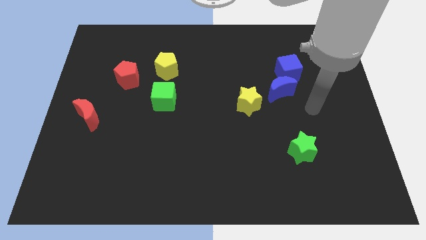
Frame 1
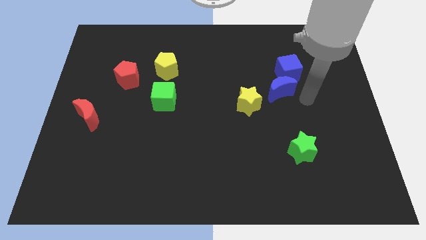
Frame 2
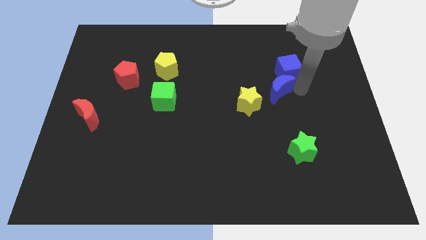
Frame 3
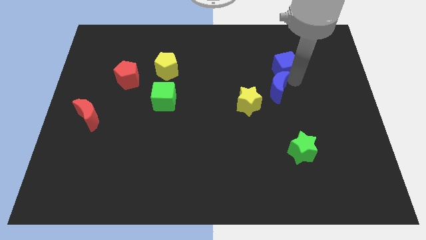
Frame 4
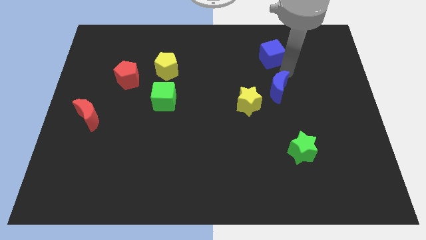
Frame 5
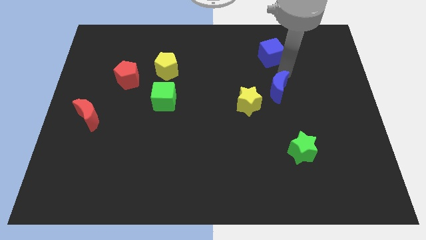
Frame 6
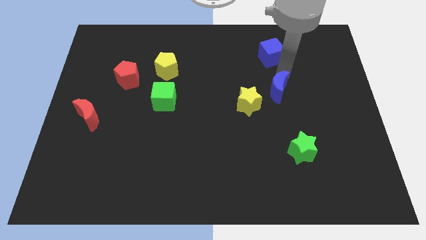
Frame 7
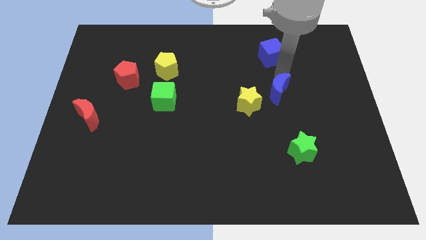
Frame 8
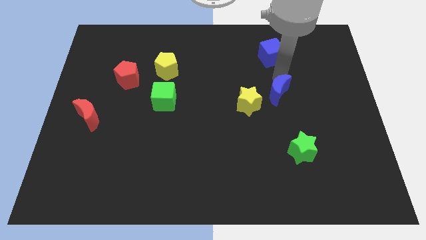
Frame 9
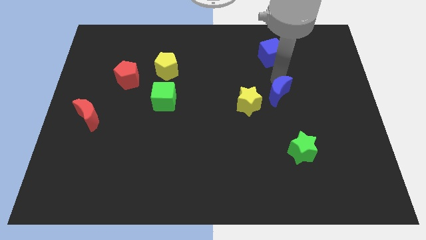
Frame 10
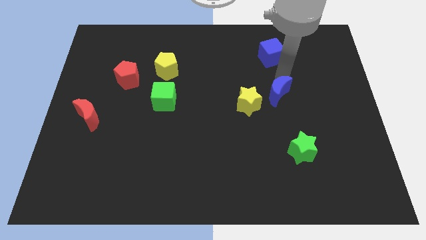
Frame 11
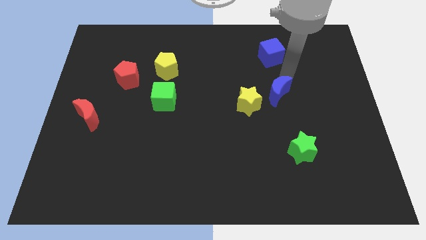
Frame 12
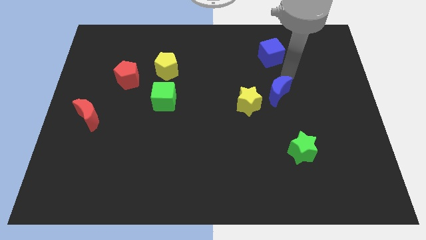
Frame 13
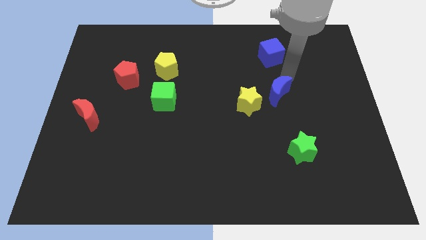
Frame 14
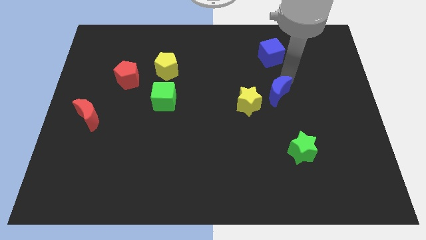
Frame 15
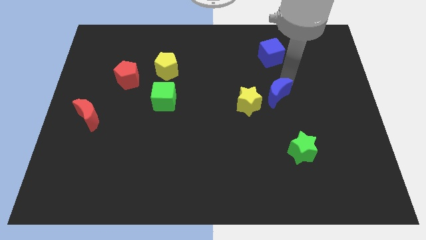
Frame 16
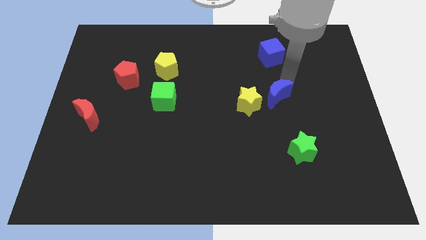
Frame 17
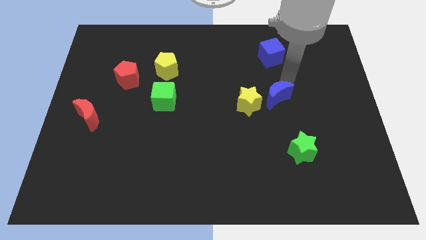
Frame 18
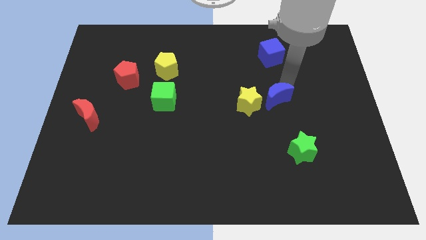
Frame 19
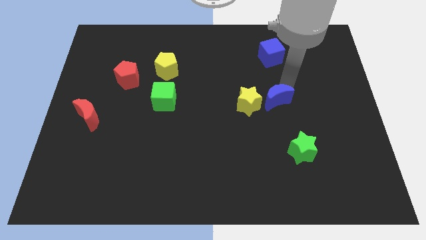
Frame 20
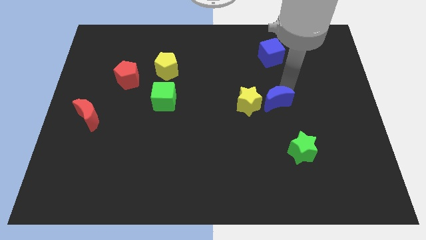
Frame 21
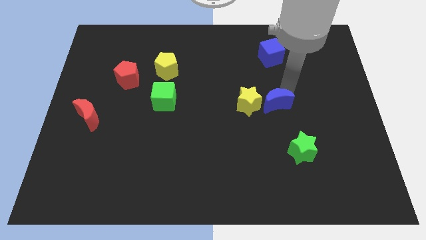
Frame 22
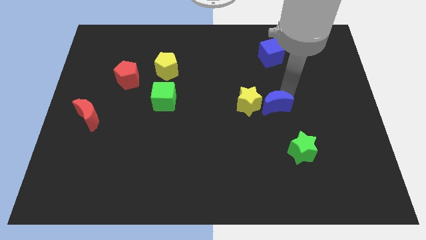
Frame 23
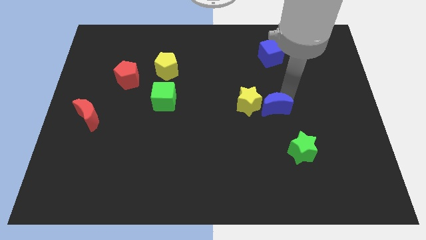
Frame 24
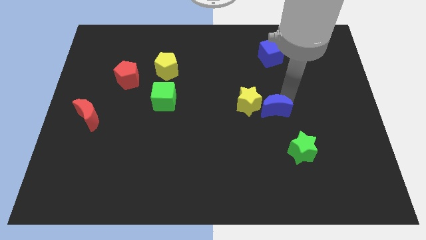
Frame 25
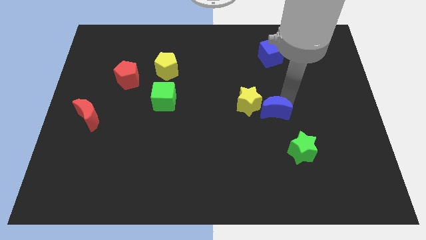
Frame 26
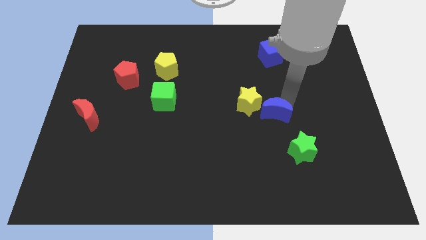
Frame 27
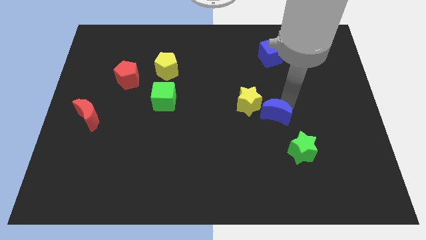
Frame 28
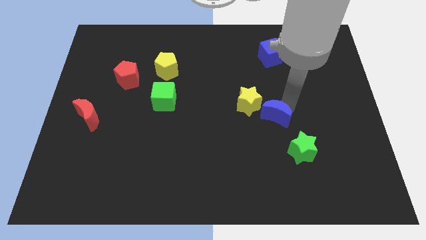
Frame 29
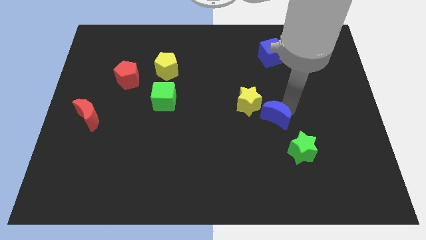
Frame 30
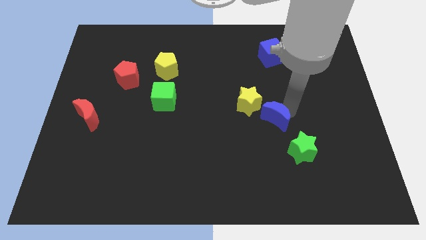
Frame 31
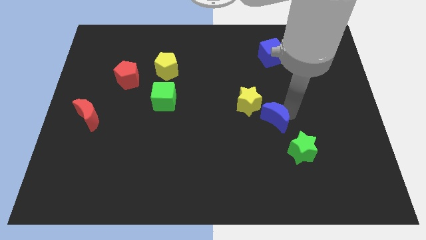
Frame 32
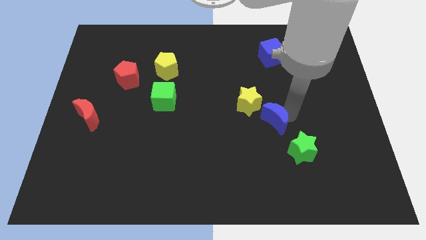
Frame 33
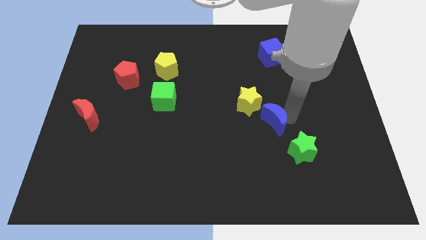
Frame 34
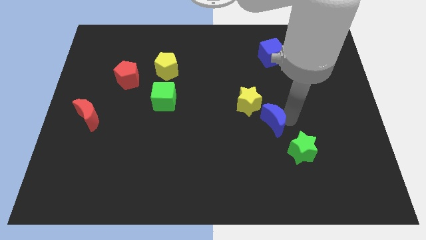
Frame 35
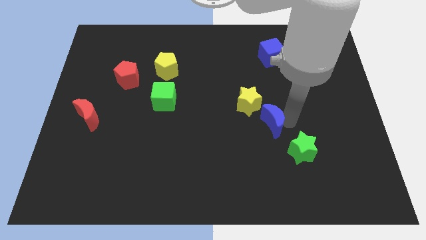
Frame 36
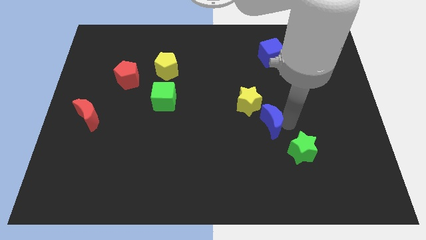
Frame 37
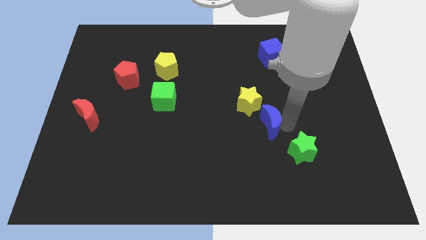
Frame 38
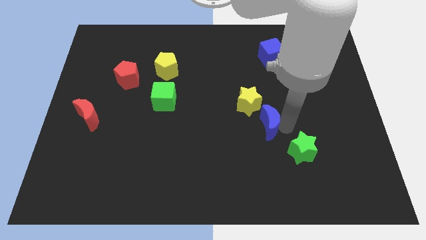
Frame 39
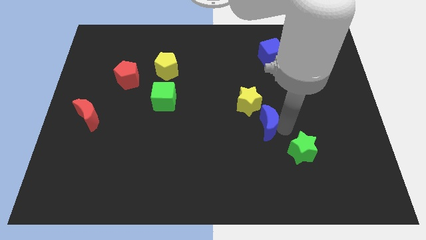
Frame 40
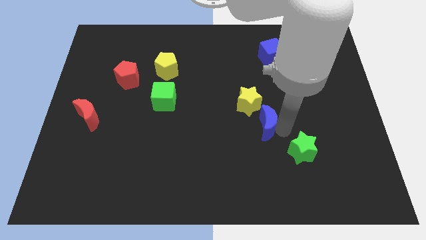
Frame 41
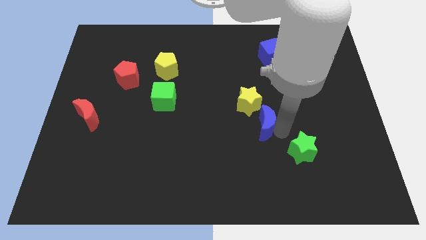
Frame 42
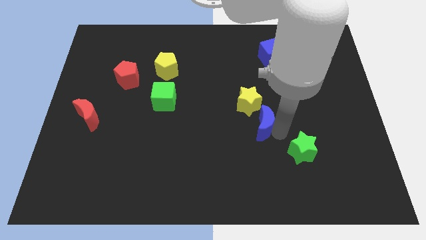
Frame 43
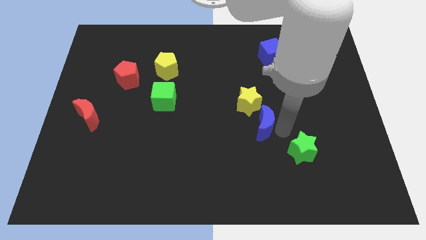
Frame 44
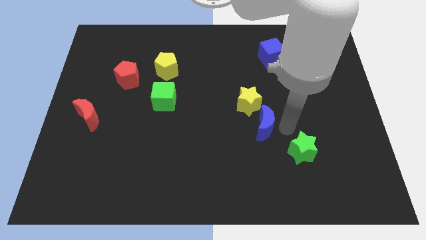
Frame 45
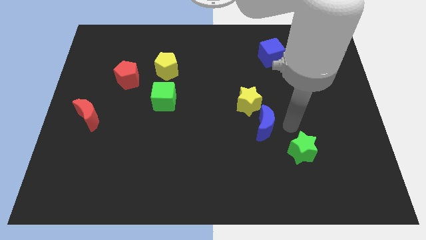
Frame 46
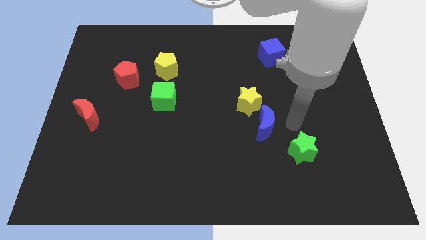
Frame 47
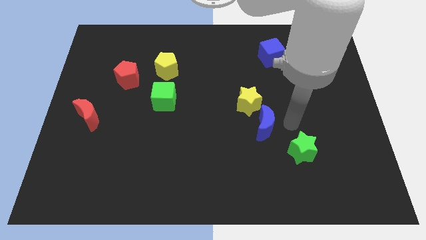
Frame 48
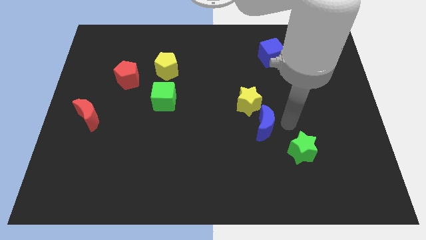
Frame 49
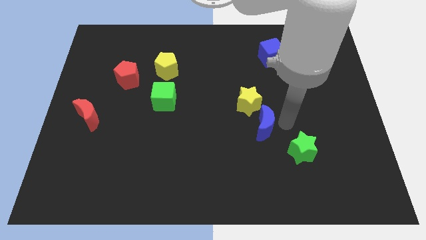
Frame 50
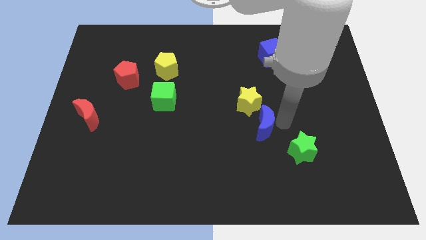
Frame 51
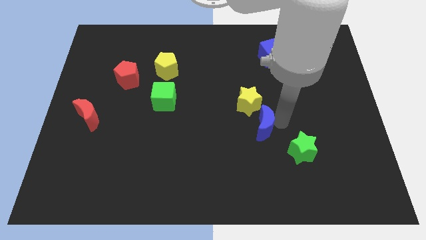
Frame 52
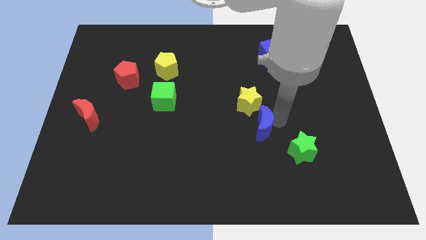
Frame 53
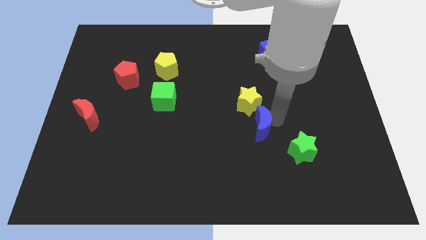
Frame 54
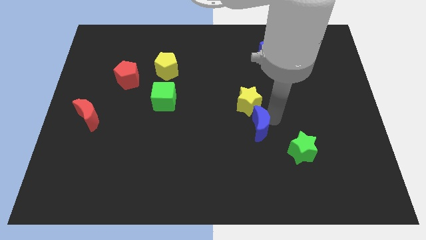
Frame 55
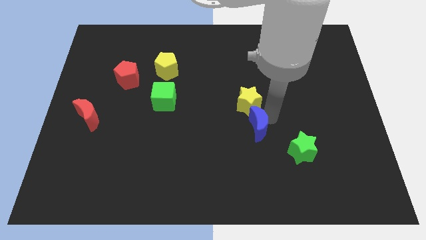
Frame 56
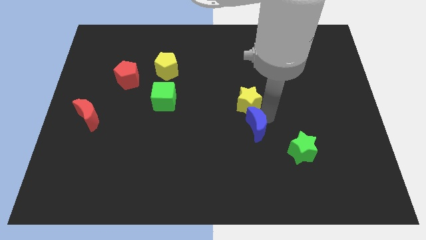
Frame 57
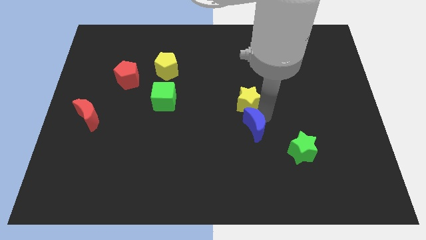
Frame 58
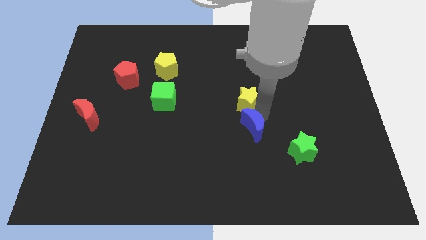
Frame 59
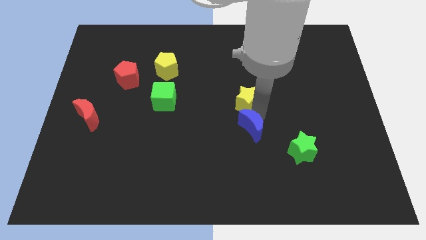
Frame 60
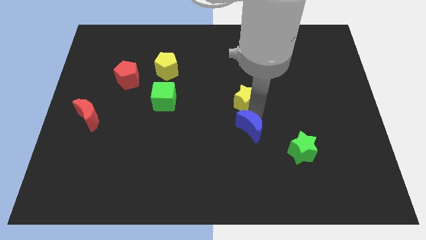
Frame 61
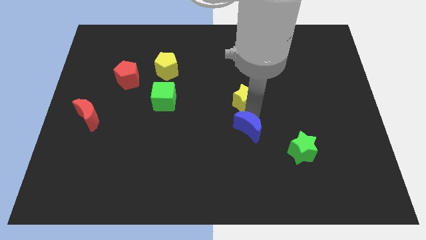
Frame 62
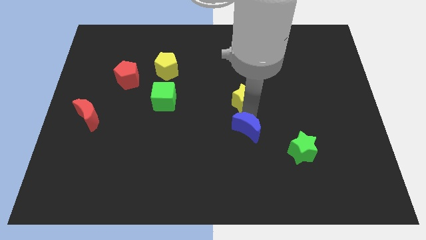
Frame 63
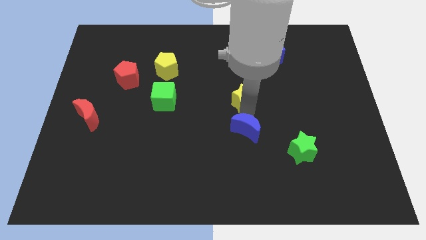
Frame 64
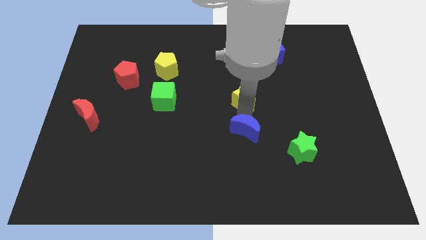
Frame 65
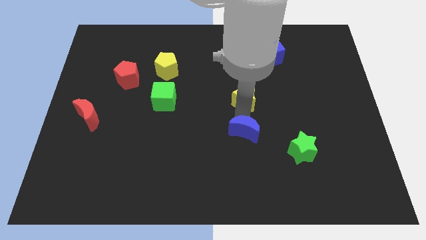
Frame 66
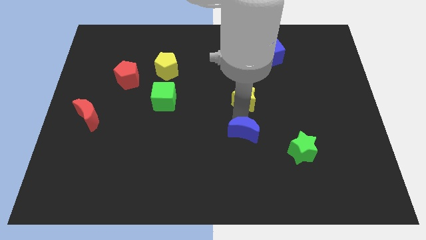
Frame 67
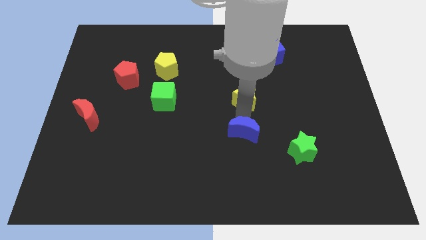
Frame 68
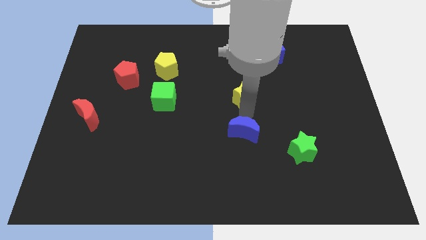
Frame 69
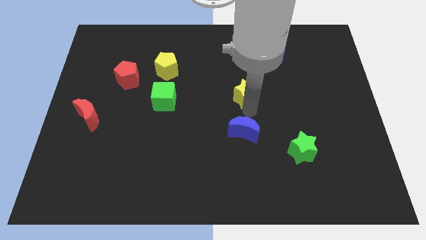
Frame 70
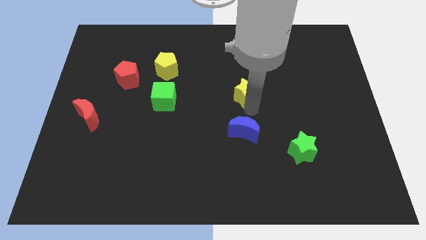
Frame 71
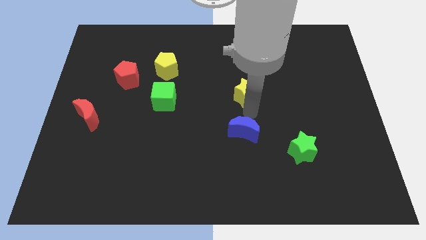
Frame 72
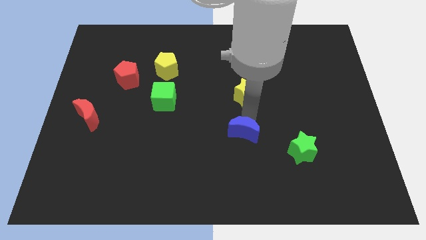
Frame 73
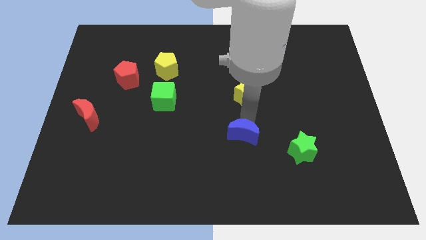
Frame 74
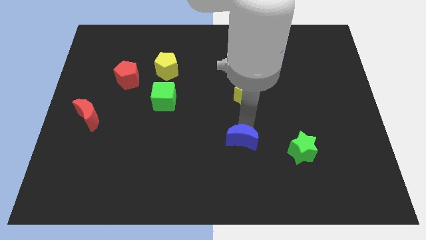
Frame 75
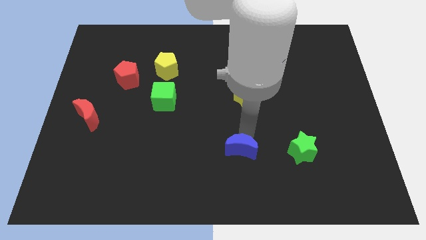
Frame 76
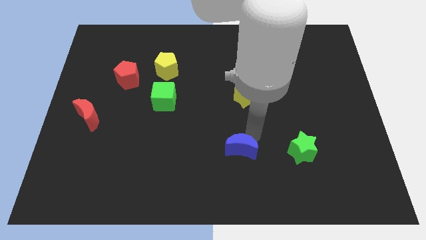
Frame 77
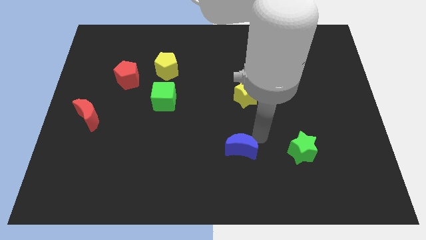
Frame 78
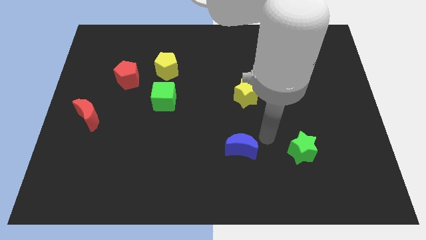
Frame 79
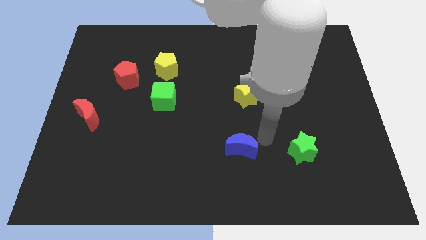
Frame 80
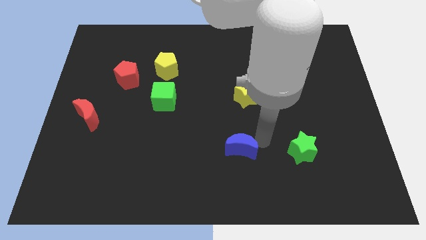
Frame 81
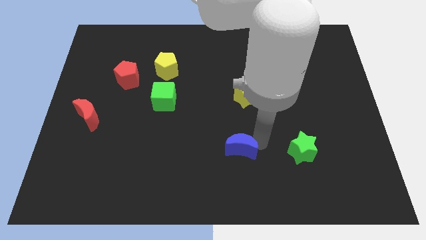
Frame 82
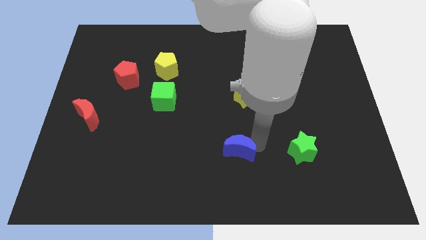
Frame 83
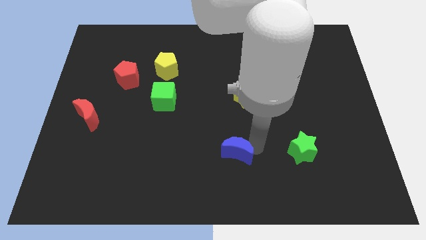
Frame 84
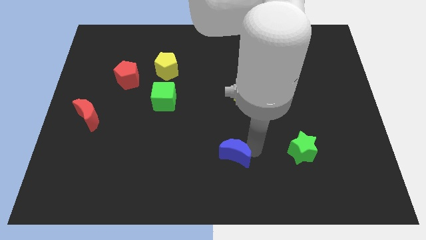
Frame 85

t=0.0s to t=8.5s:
move the blue moon downwards and left diagonally
